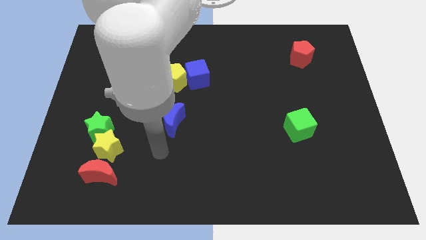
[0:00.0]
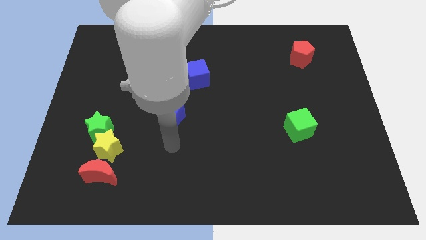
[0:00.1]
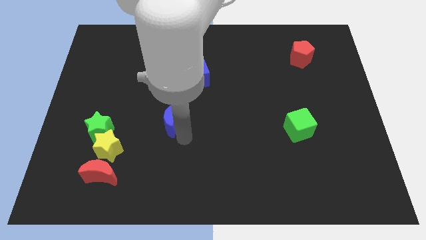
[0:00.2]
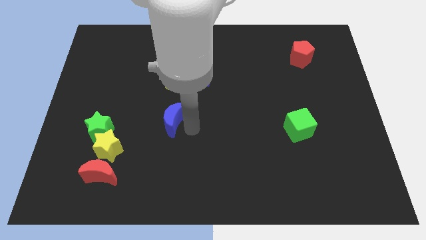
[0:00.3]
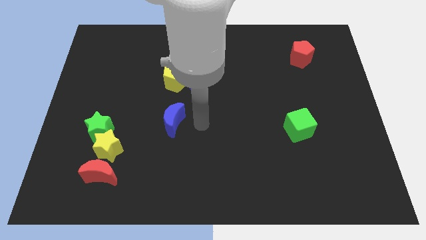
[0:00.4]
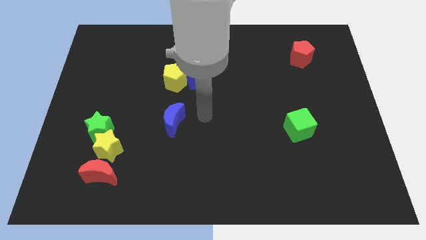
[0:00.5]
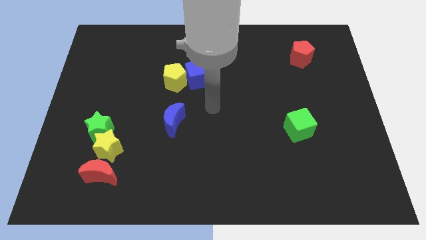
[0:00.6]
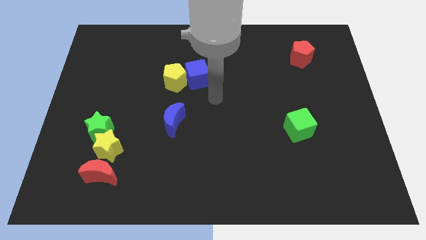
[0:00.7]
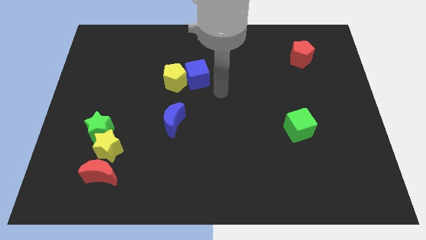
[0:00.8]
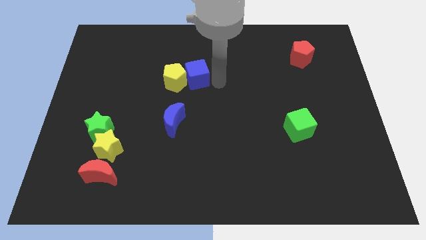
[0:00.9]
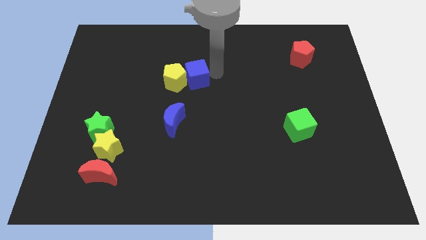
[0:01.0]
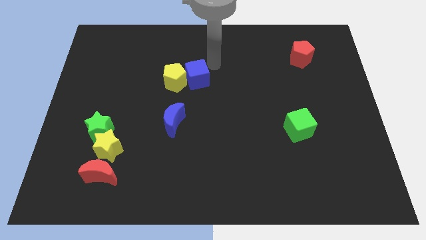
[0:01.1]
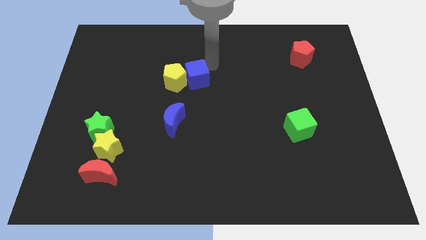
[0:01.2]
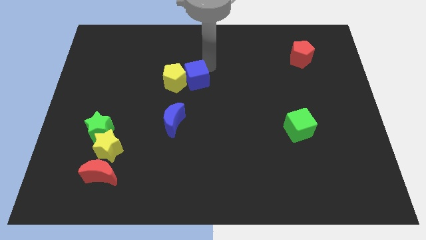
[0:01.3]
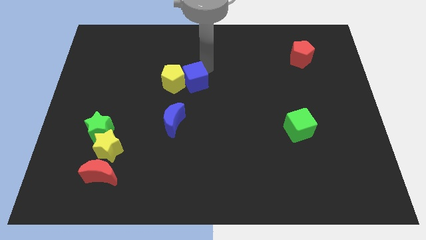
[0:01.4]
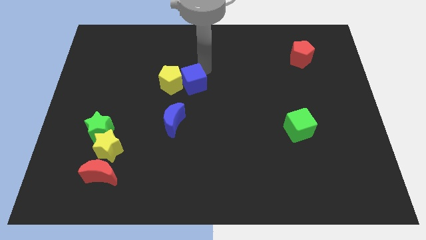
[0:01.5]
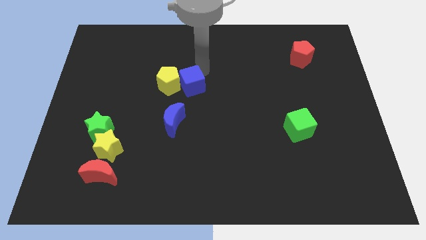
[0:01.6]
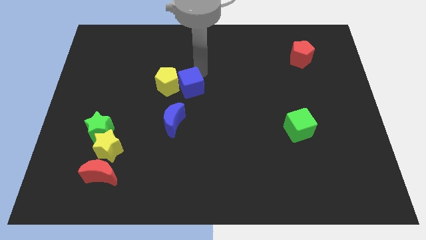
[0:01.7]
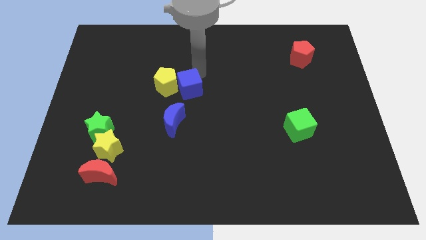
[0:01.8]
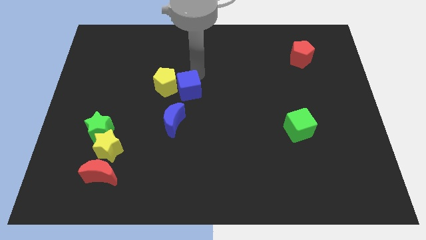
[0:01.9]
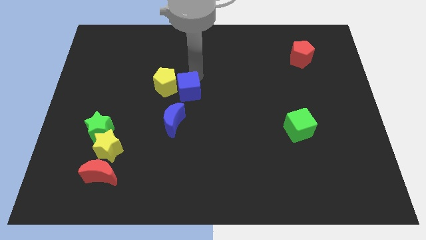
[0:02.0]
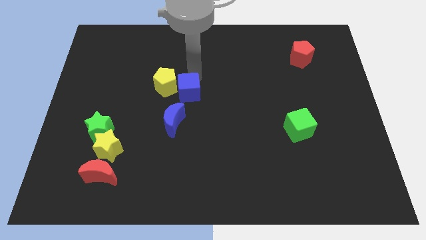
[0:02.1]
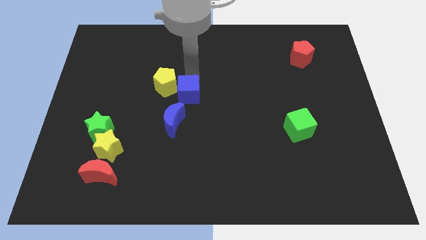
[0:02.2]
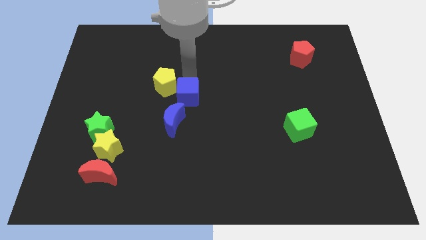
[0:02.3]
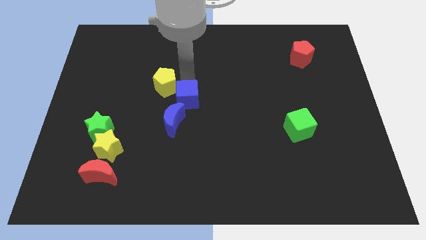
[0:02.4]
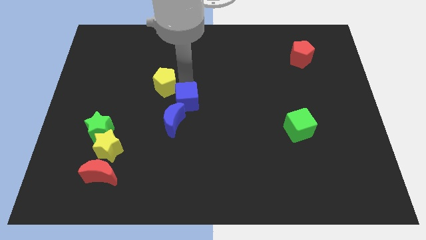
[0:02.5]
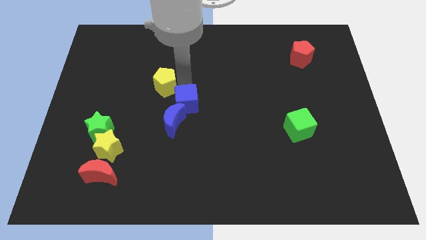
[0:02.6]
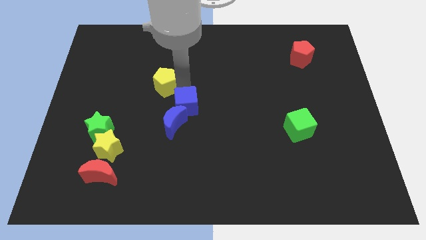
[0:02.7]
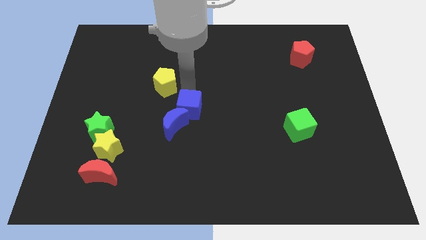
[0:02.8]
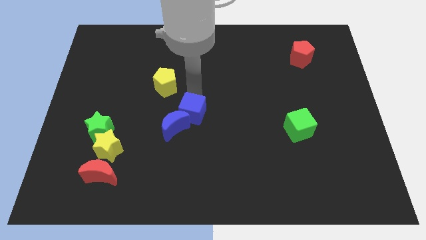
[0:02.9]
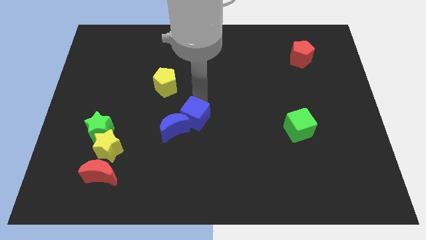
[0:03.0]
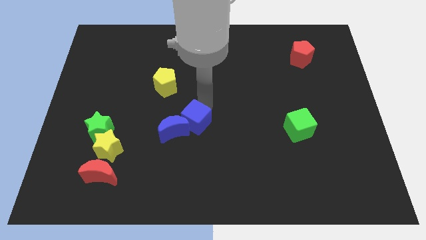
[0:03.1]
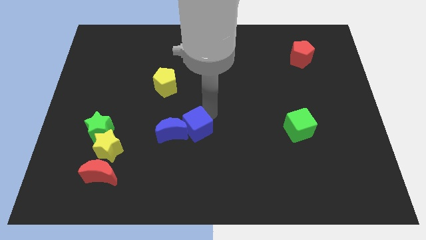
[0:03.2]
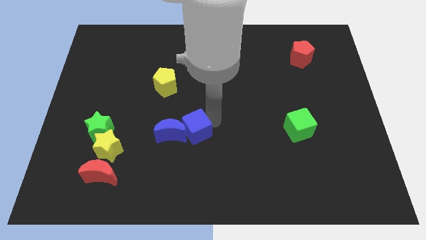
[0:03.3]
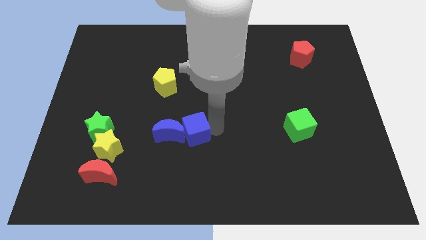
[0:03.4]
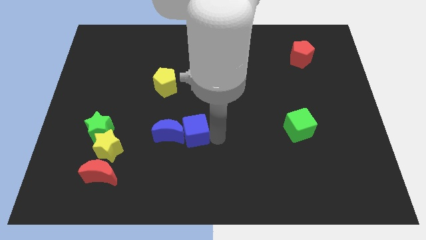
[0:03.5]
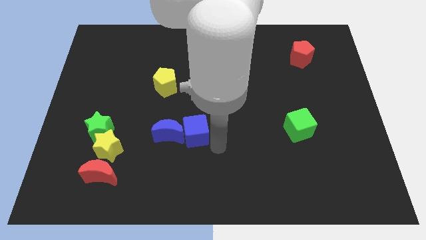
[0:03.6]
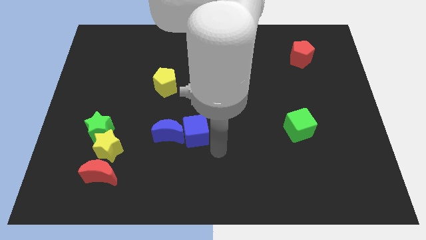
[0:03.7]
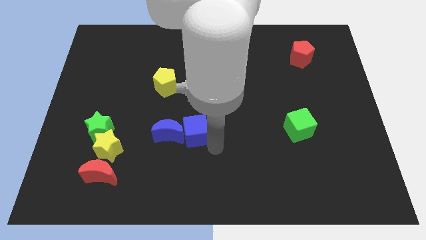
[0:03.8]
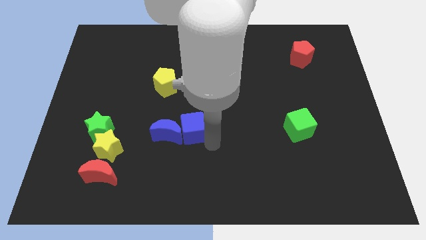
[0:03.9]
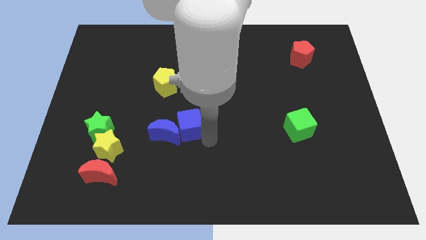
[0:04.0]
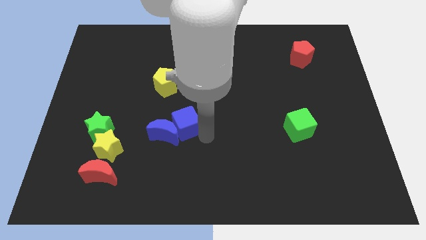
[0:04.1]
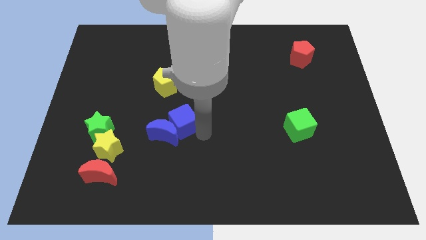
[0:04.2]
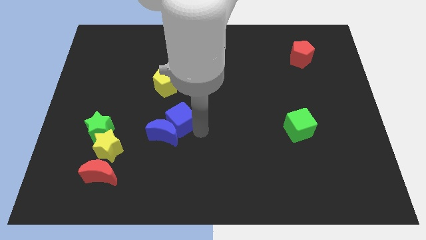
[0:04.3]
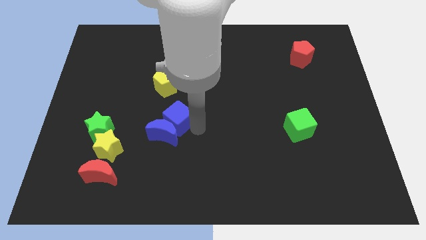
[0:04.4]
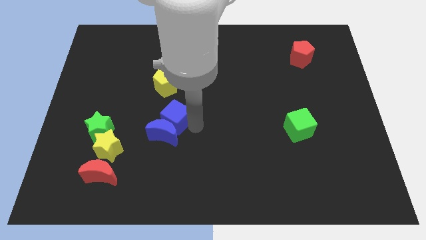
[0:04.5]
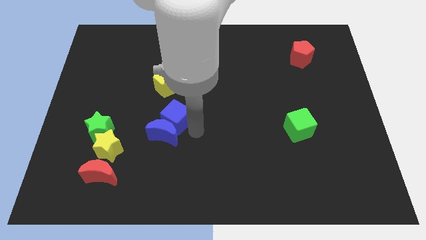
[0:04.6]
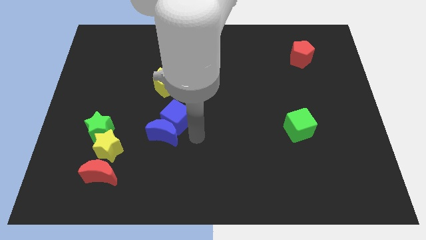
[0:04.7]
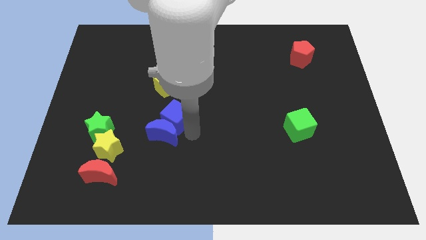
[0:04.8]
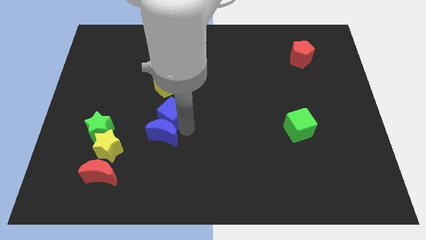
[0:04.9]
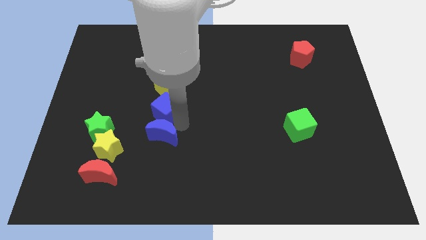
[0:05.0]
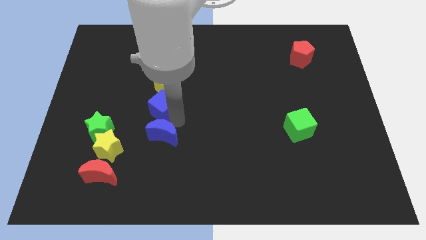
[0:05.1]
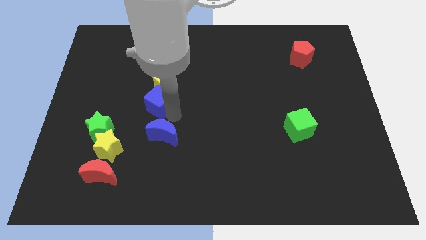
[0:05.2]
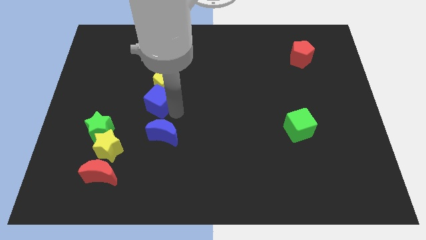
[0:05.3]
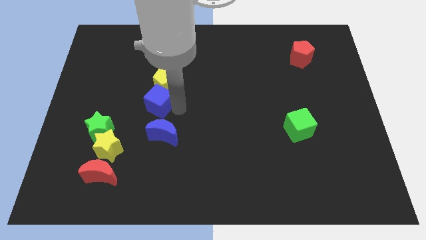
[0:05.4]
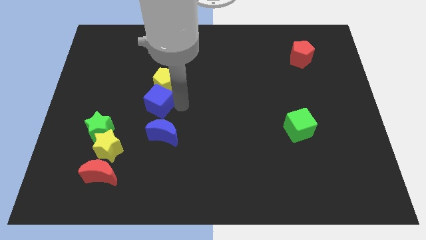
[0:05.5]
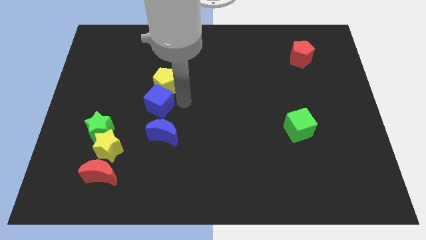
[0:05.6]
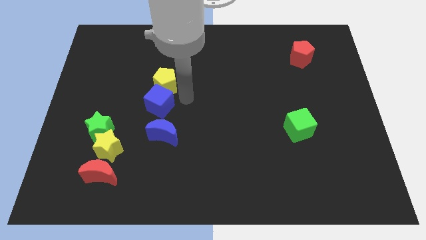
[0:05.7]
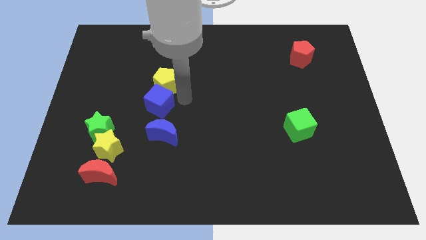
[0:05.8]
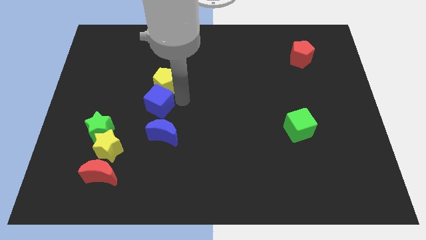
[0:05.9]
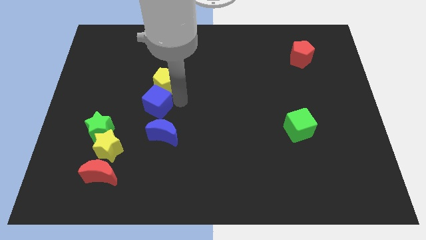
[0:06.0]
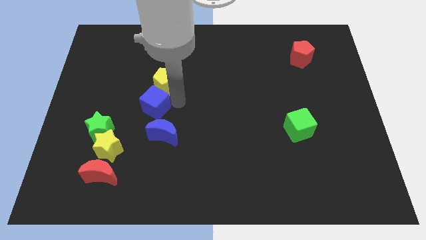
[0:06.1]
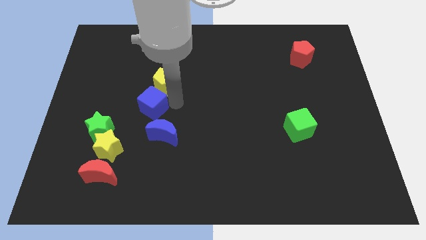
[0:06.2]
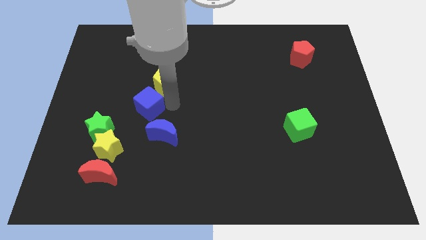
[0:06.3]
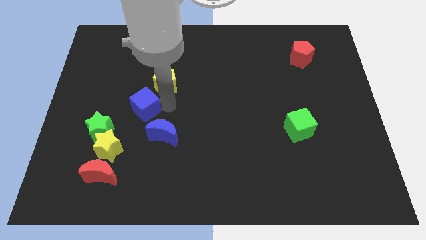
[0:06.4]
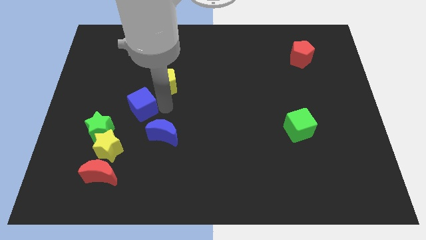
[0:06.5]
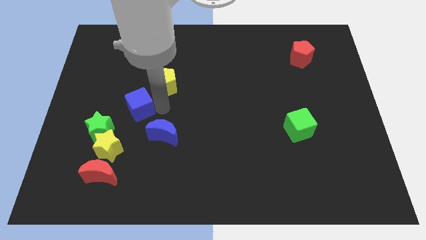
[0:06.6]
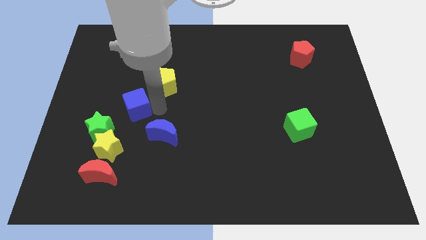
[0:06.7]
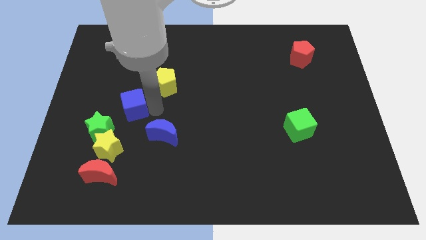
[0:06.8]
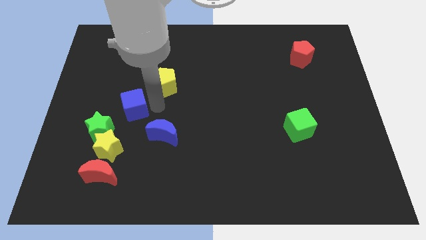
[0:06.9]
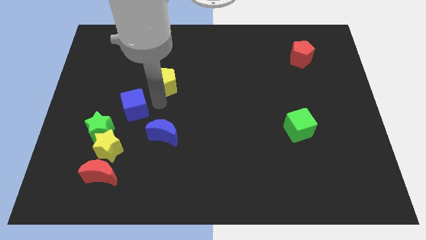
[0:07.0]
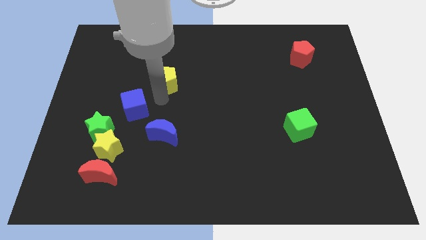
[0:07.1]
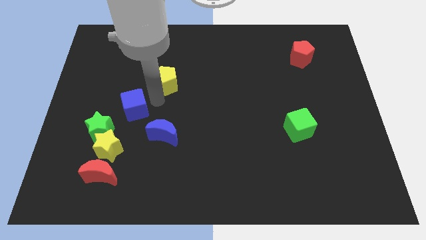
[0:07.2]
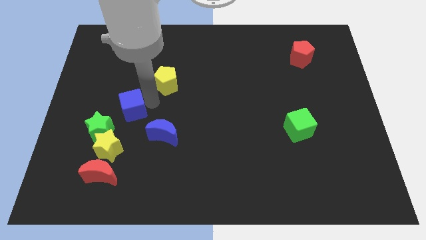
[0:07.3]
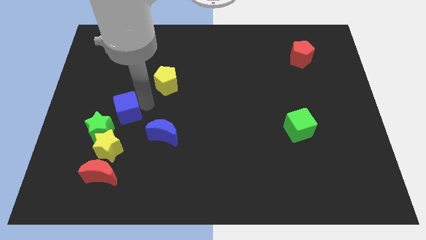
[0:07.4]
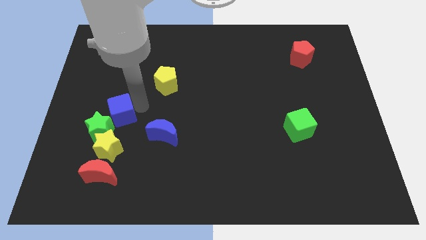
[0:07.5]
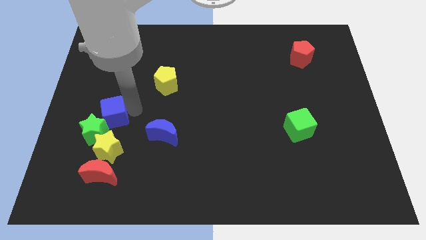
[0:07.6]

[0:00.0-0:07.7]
move the blue cube downwards and to the left

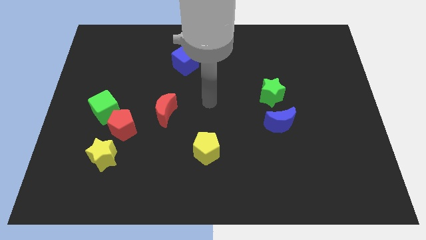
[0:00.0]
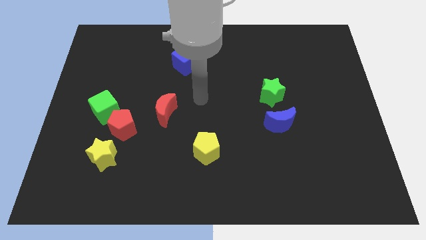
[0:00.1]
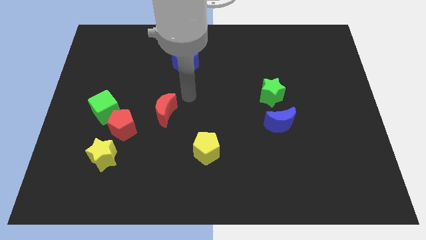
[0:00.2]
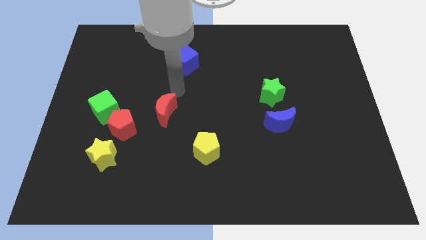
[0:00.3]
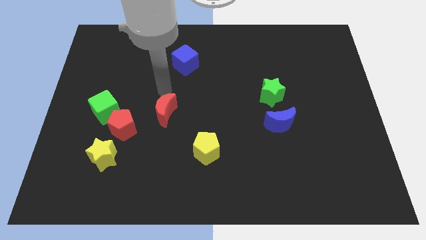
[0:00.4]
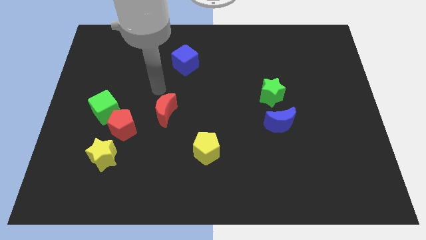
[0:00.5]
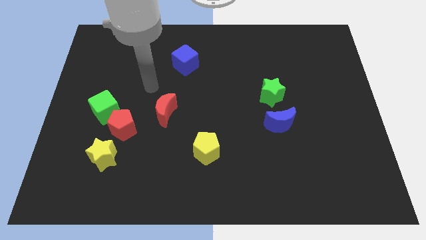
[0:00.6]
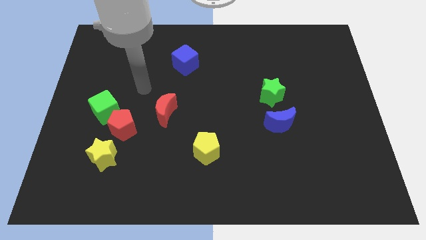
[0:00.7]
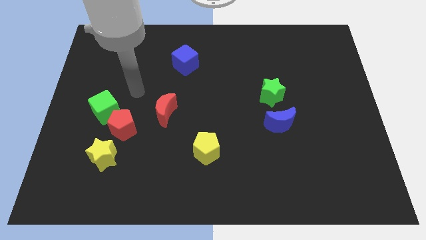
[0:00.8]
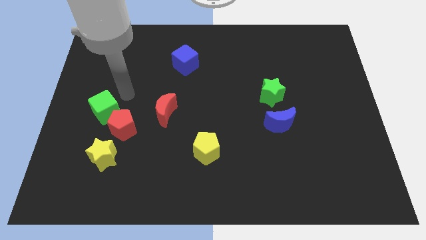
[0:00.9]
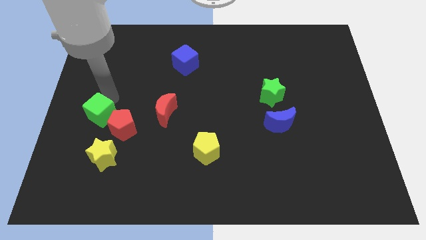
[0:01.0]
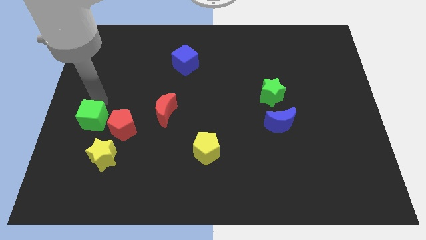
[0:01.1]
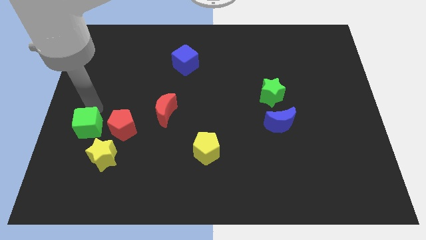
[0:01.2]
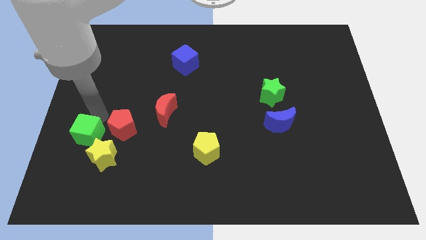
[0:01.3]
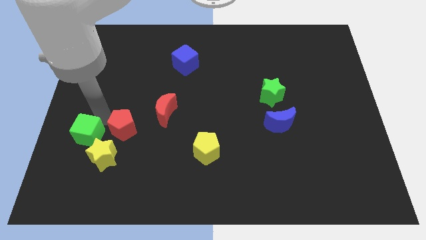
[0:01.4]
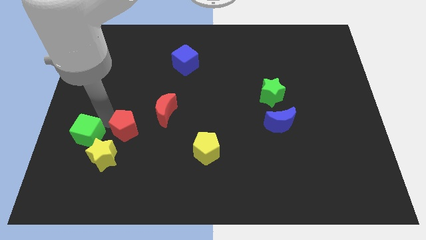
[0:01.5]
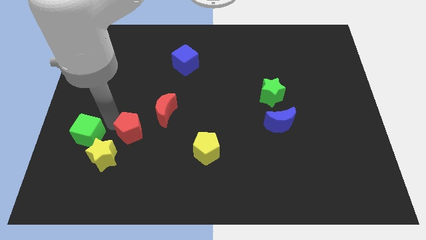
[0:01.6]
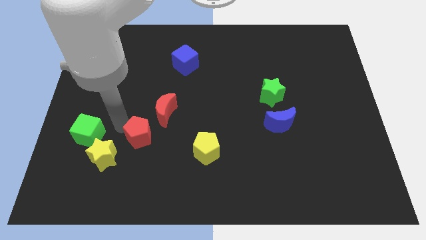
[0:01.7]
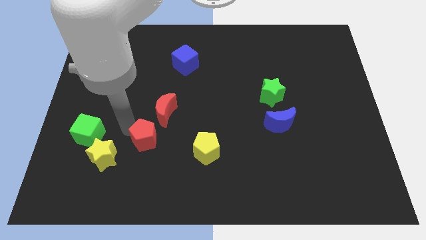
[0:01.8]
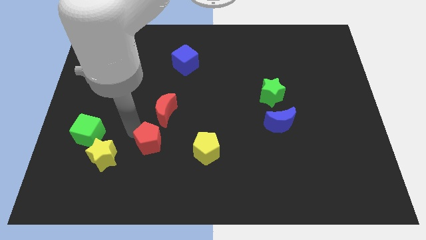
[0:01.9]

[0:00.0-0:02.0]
slide the red pentagon a bit diagonally downwards and right
